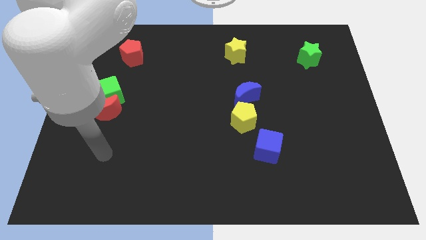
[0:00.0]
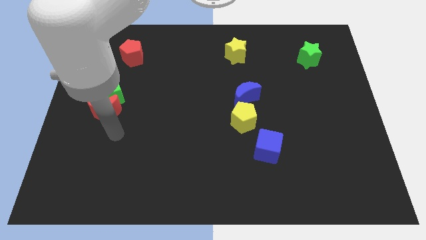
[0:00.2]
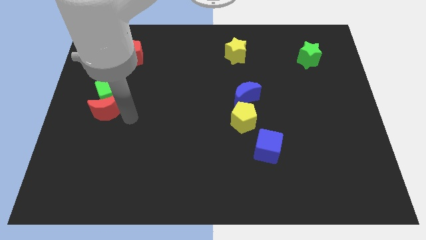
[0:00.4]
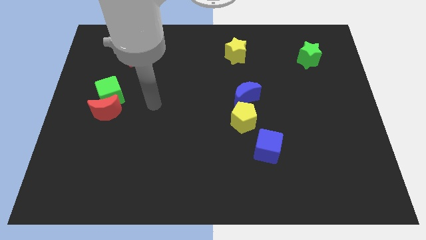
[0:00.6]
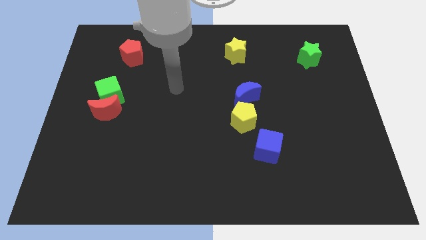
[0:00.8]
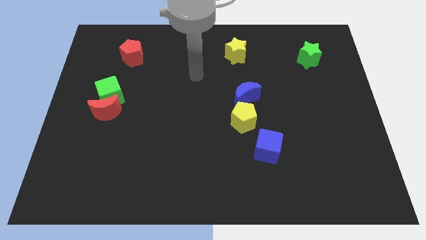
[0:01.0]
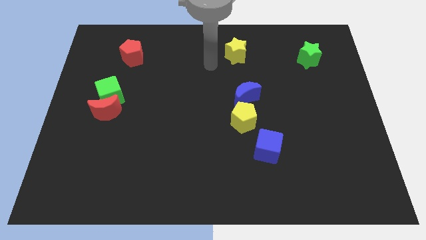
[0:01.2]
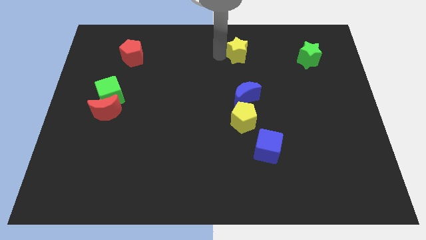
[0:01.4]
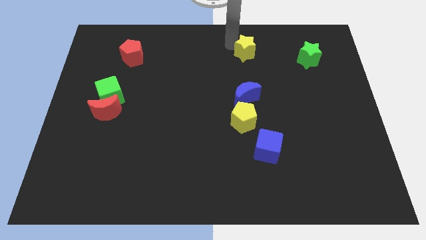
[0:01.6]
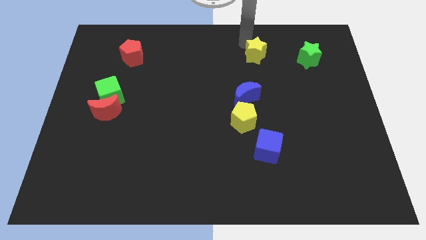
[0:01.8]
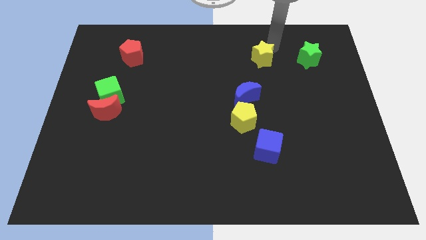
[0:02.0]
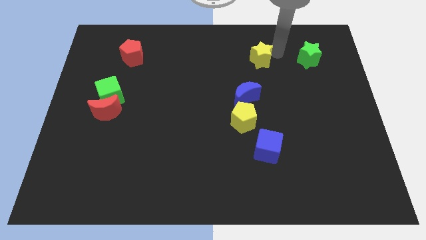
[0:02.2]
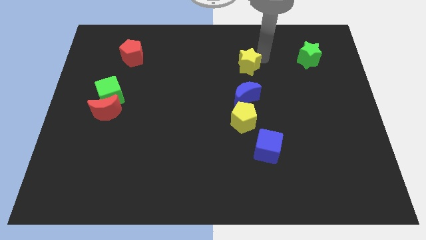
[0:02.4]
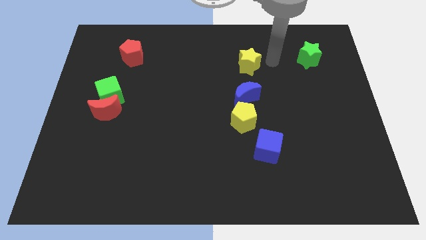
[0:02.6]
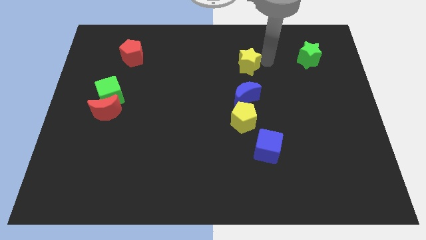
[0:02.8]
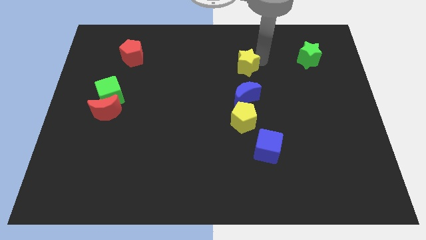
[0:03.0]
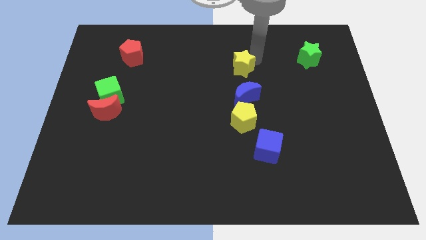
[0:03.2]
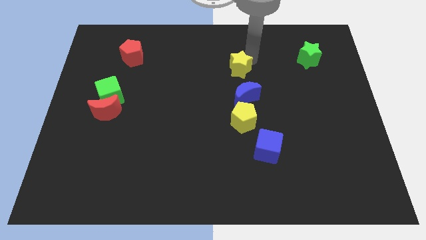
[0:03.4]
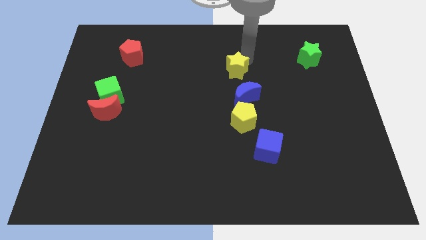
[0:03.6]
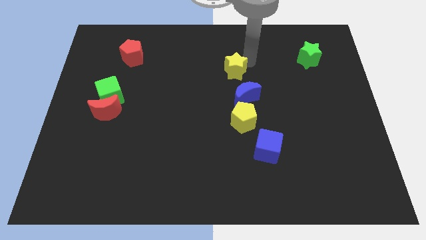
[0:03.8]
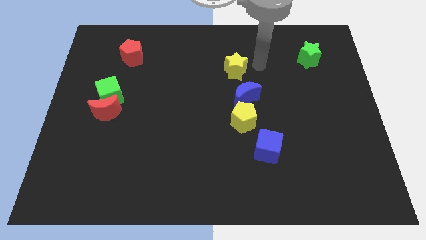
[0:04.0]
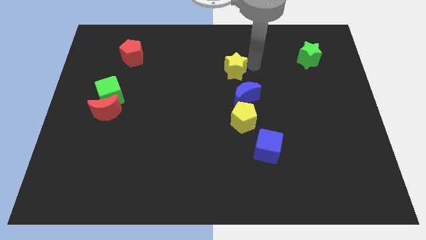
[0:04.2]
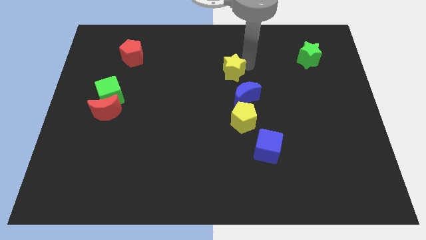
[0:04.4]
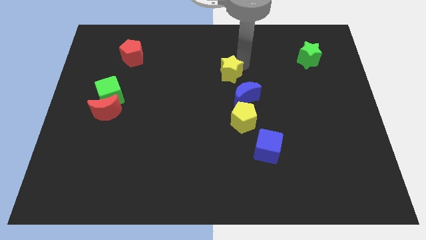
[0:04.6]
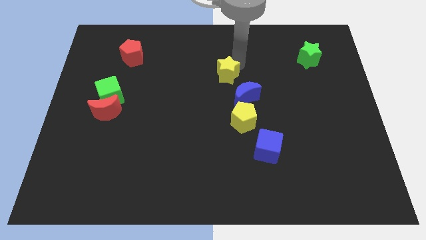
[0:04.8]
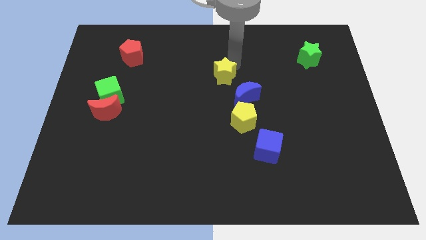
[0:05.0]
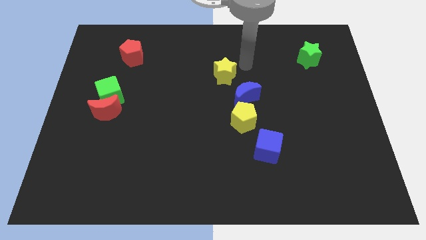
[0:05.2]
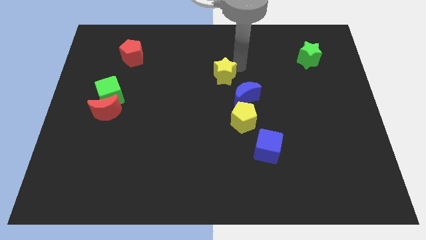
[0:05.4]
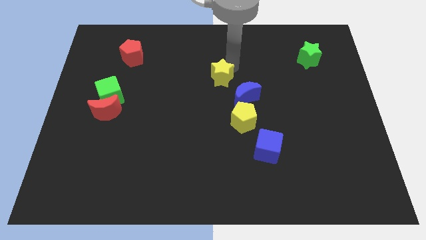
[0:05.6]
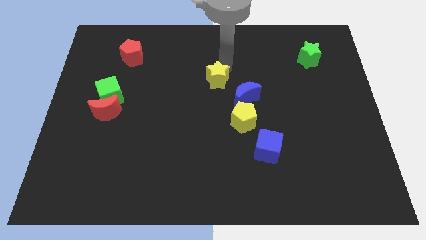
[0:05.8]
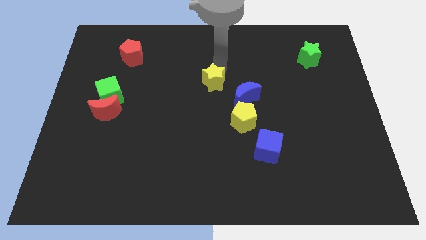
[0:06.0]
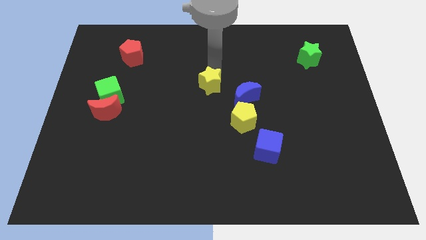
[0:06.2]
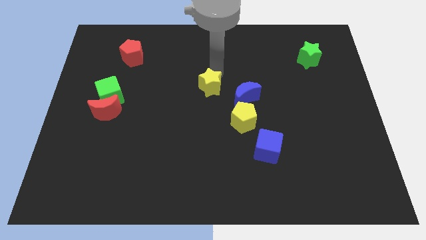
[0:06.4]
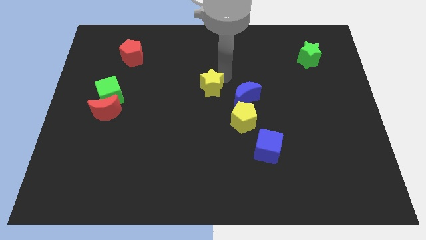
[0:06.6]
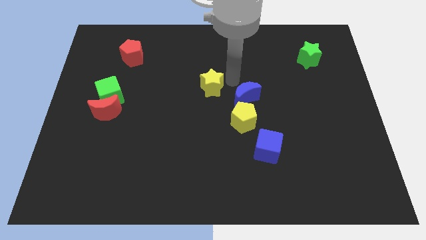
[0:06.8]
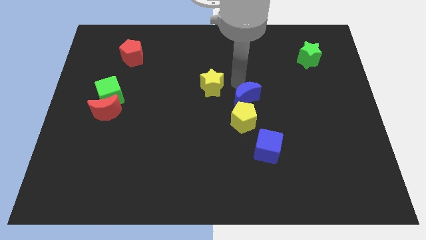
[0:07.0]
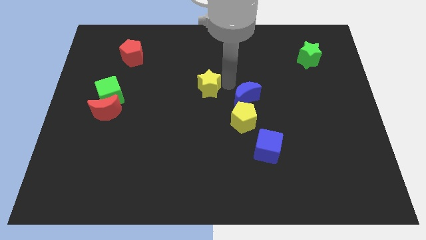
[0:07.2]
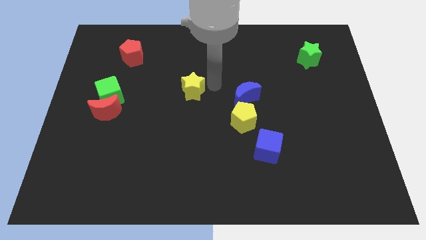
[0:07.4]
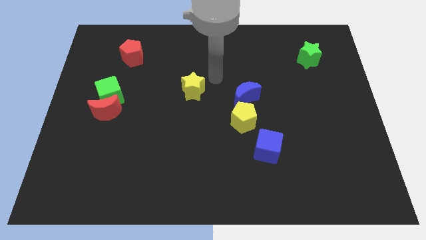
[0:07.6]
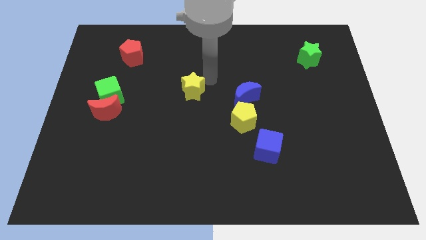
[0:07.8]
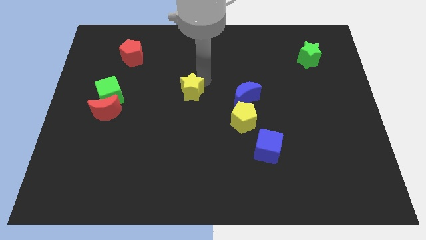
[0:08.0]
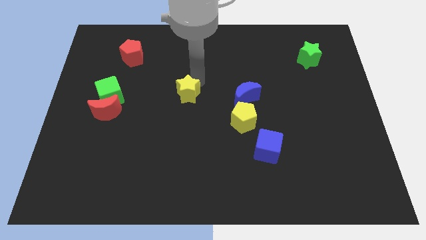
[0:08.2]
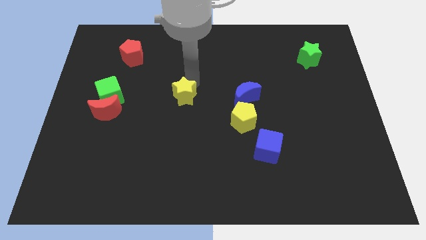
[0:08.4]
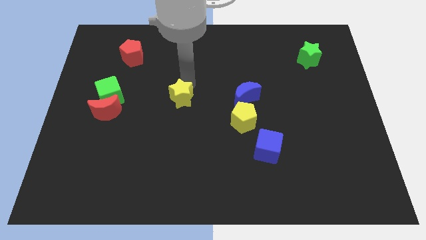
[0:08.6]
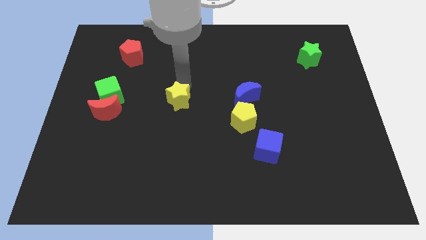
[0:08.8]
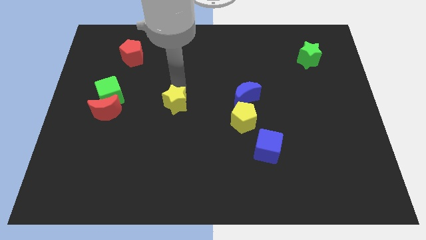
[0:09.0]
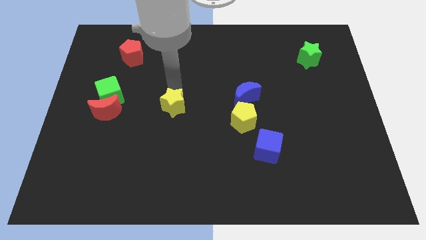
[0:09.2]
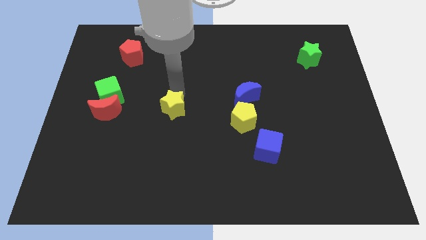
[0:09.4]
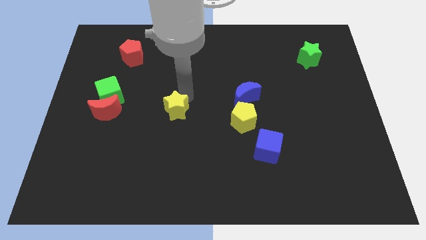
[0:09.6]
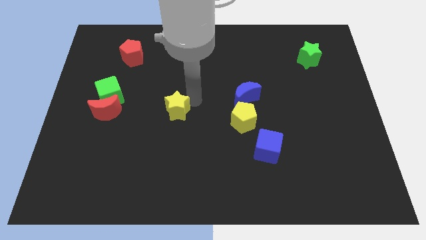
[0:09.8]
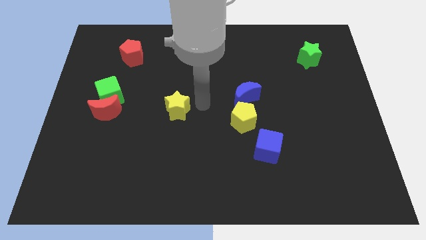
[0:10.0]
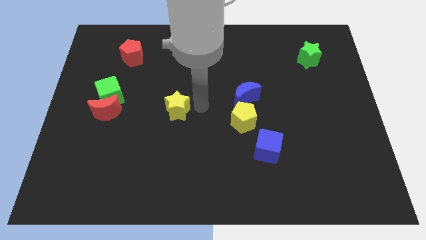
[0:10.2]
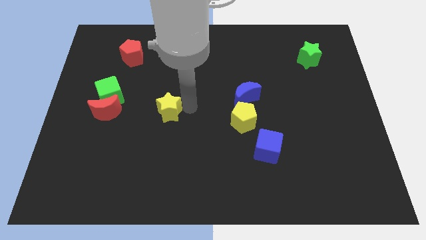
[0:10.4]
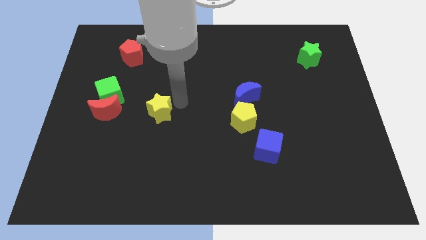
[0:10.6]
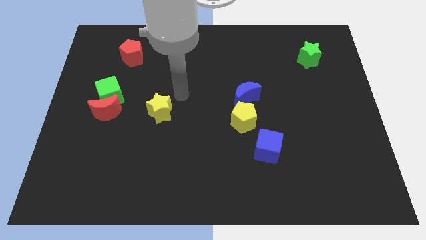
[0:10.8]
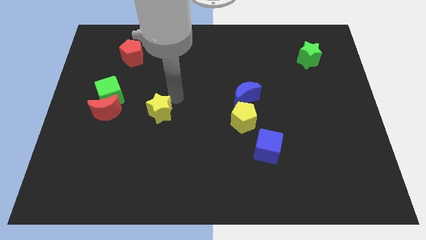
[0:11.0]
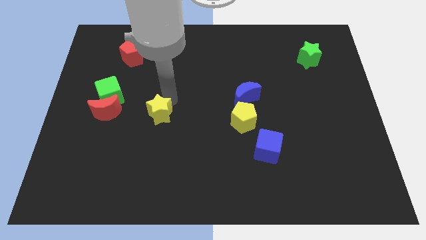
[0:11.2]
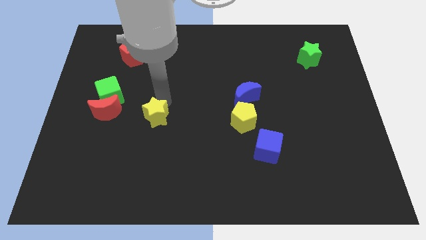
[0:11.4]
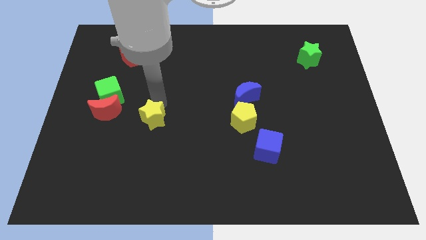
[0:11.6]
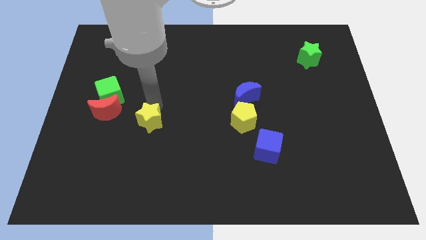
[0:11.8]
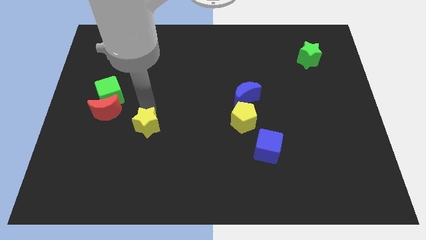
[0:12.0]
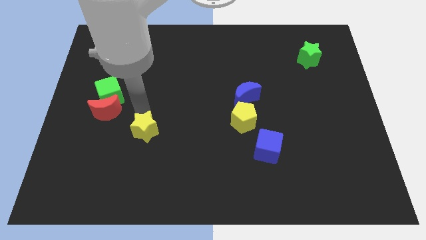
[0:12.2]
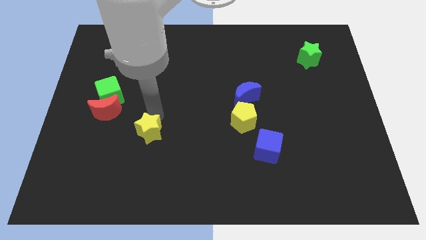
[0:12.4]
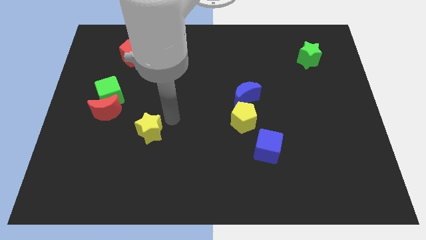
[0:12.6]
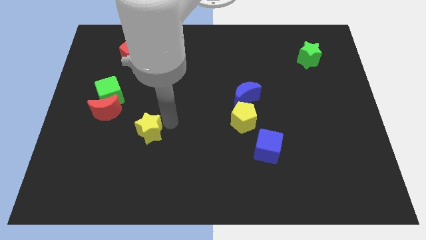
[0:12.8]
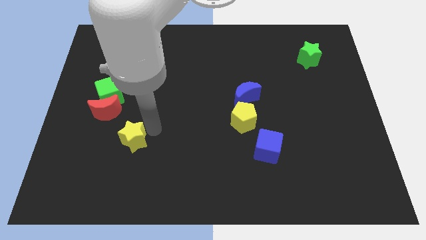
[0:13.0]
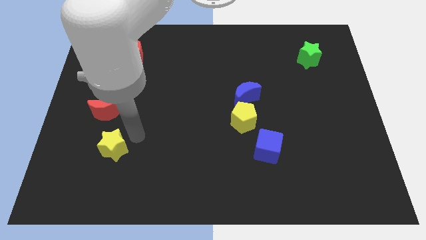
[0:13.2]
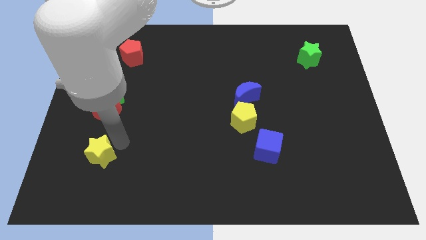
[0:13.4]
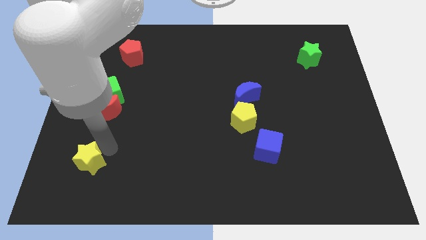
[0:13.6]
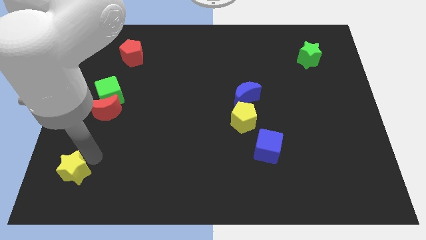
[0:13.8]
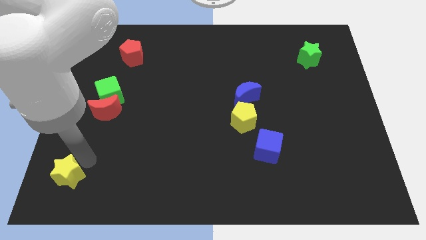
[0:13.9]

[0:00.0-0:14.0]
slide the yellow star to the bottom left
